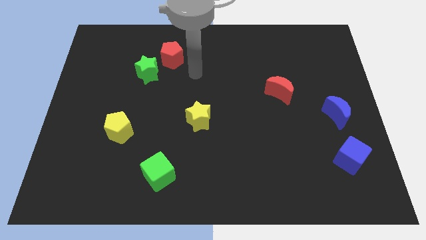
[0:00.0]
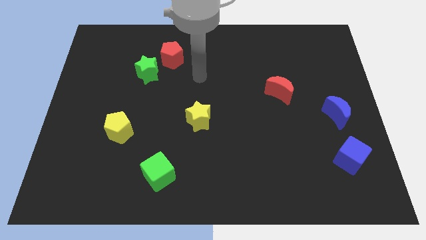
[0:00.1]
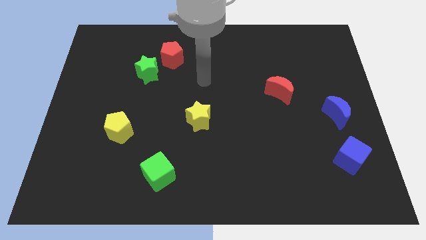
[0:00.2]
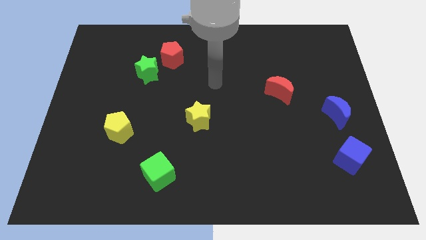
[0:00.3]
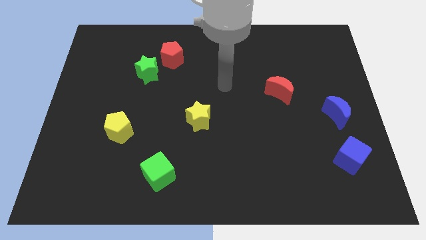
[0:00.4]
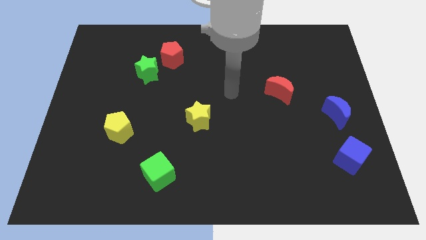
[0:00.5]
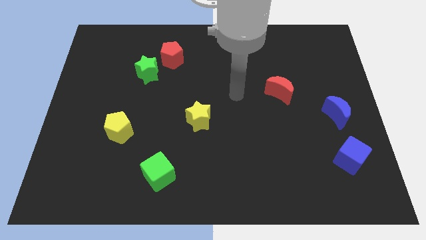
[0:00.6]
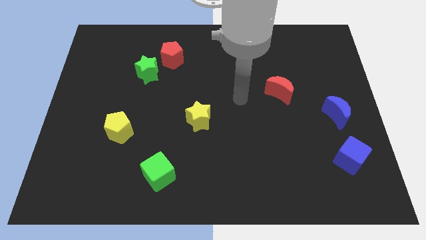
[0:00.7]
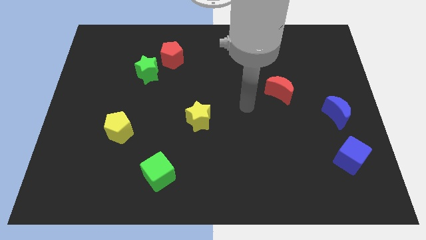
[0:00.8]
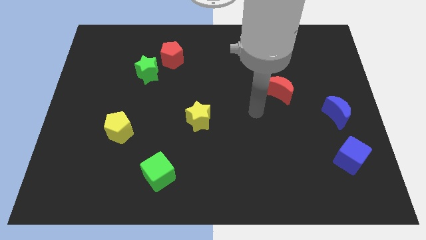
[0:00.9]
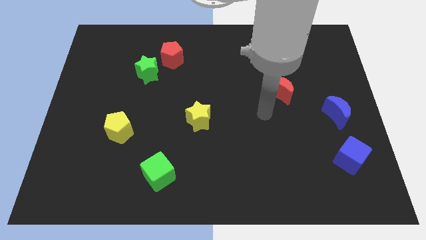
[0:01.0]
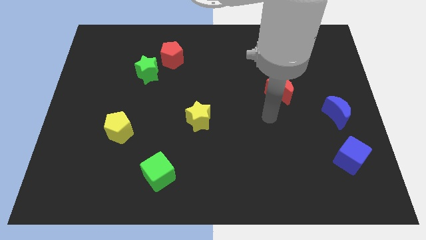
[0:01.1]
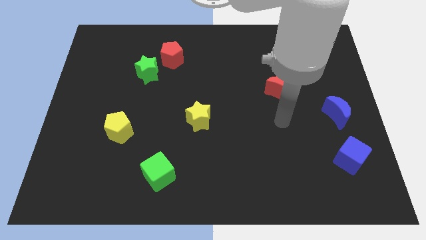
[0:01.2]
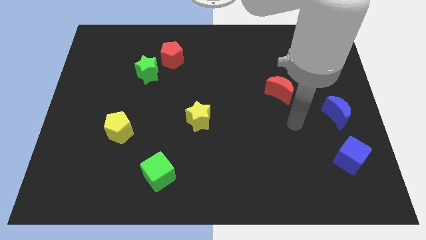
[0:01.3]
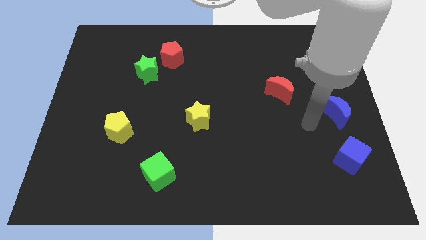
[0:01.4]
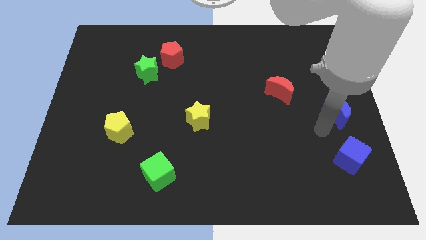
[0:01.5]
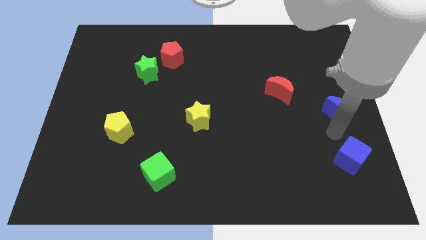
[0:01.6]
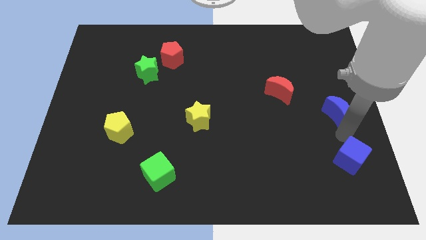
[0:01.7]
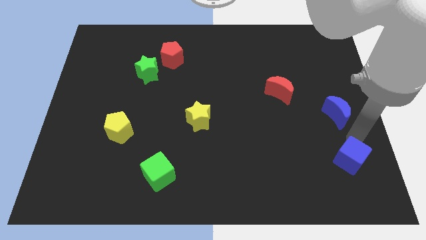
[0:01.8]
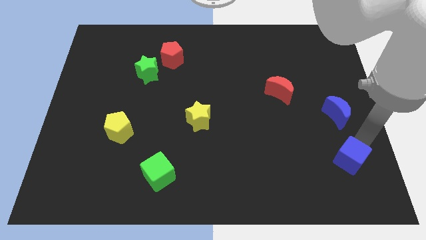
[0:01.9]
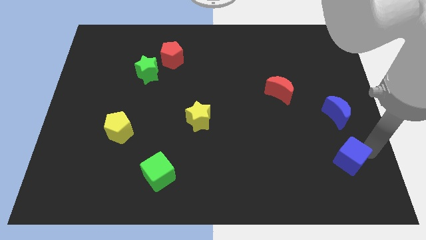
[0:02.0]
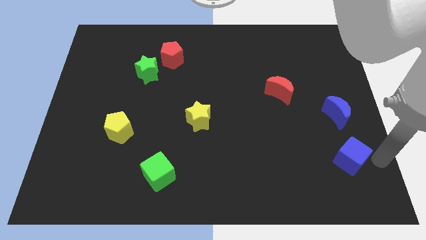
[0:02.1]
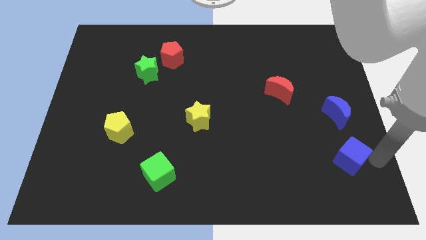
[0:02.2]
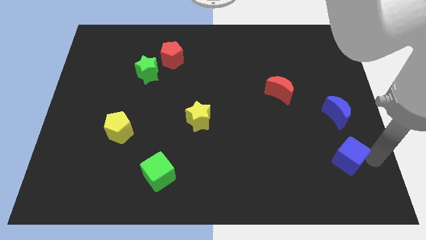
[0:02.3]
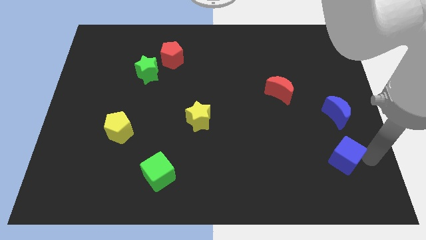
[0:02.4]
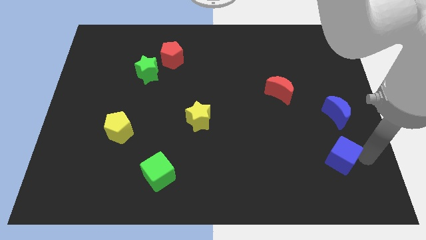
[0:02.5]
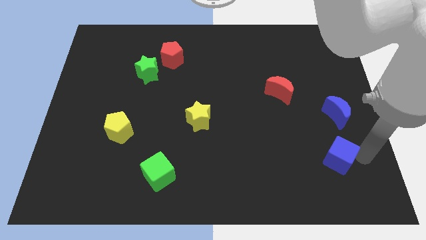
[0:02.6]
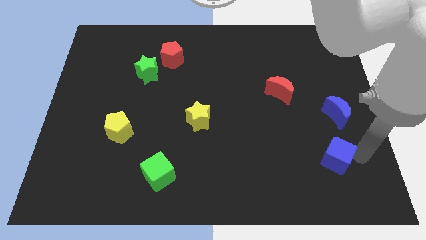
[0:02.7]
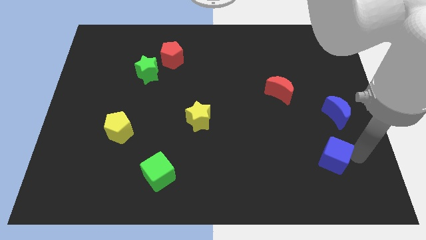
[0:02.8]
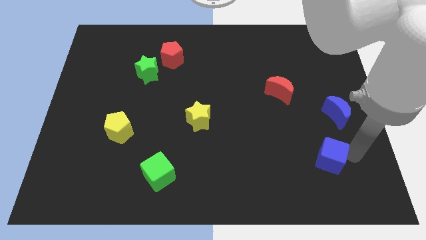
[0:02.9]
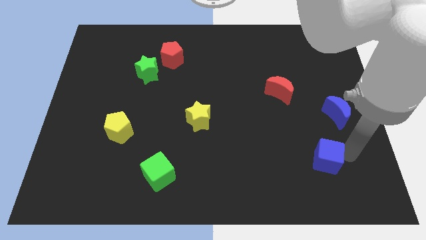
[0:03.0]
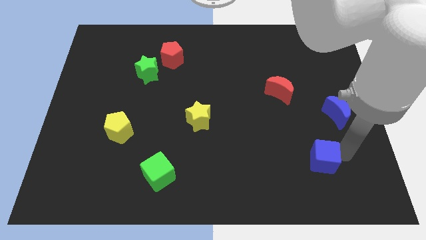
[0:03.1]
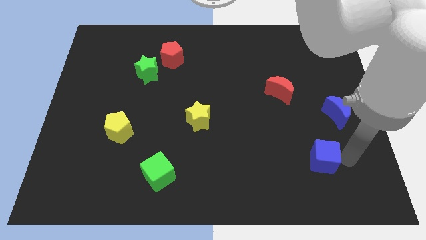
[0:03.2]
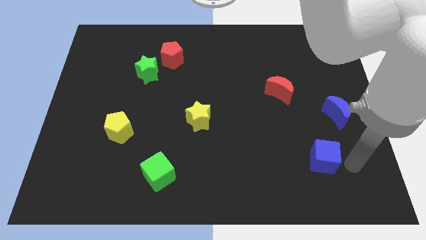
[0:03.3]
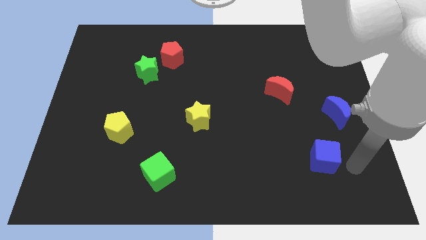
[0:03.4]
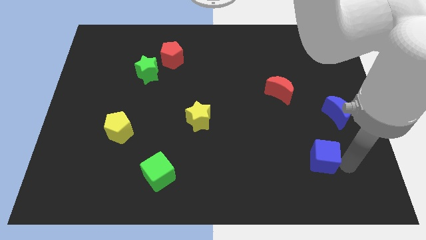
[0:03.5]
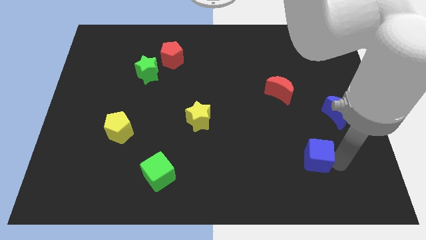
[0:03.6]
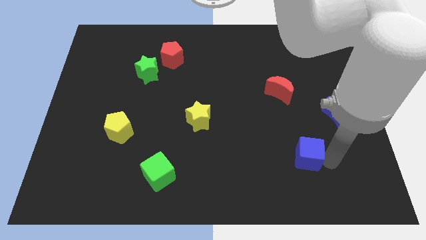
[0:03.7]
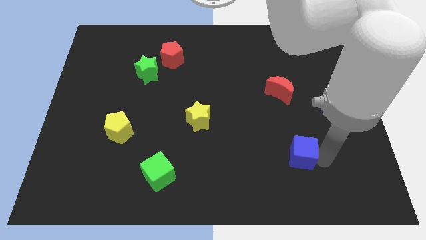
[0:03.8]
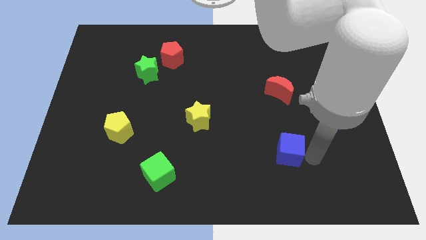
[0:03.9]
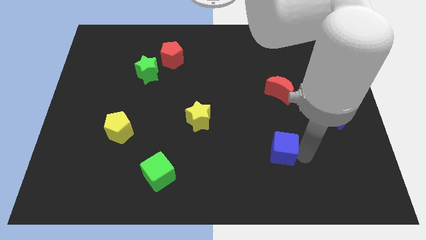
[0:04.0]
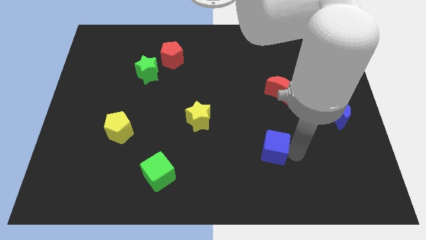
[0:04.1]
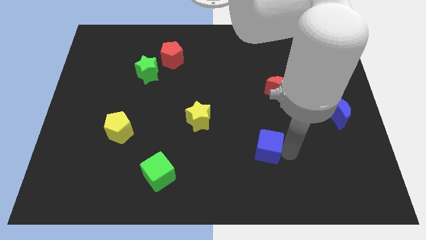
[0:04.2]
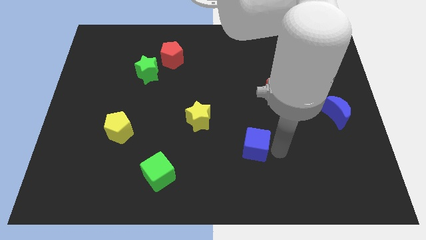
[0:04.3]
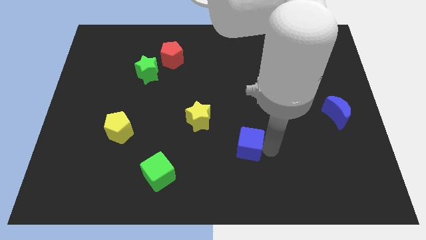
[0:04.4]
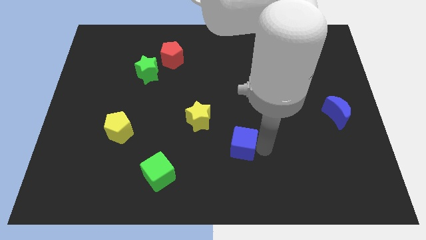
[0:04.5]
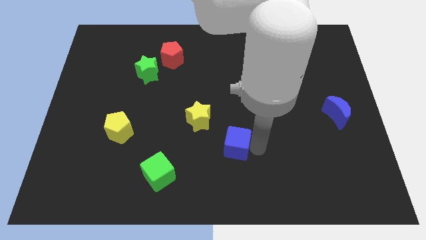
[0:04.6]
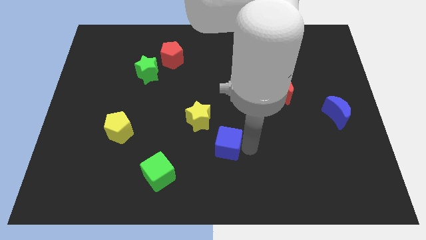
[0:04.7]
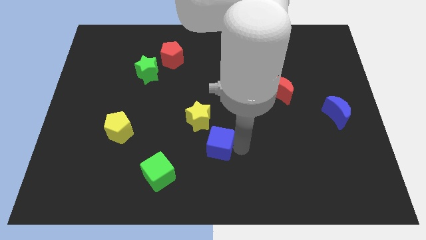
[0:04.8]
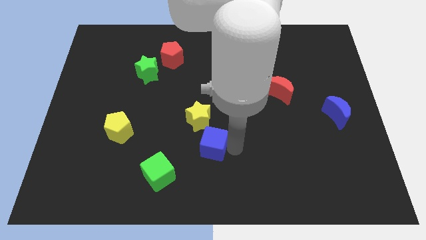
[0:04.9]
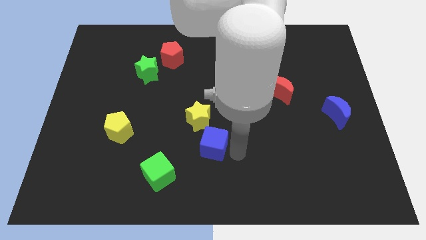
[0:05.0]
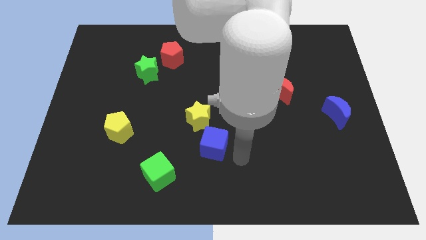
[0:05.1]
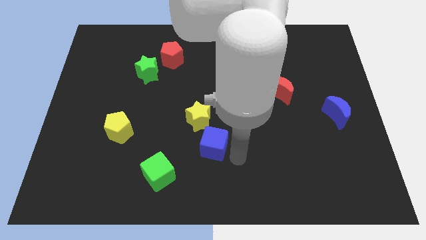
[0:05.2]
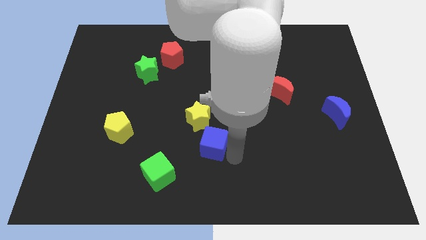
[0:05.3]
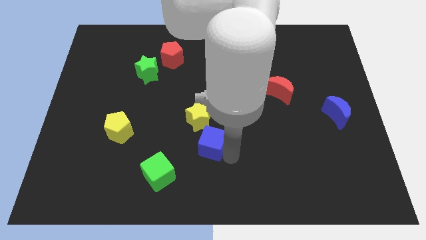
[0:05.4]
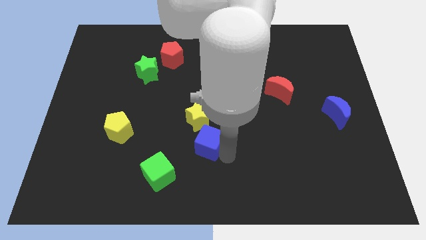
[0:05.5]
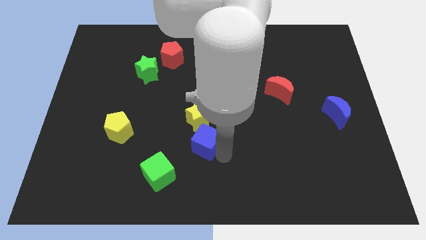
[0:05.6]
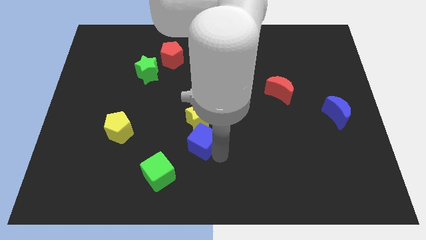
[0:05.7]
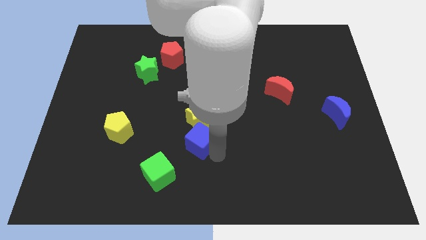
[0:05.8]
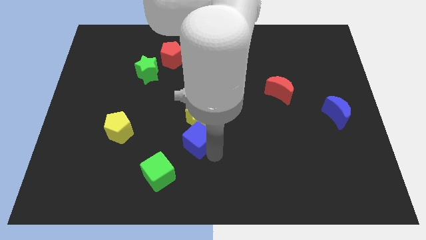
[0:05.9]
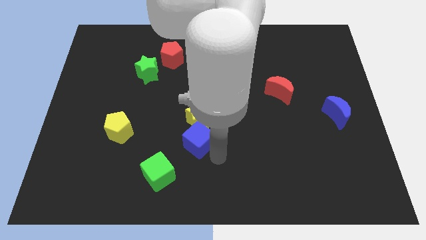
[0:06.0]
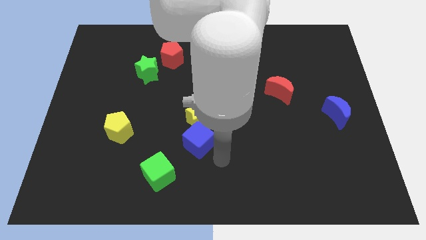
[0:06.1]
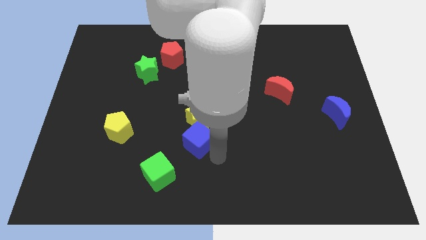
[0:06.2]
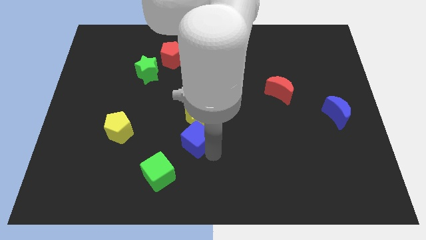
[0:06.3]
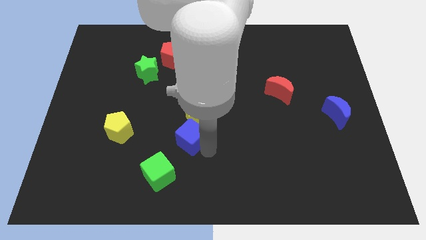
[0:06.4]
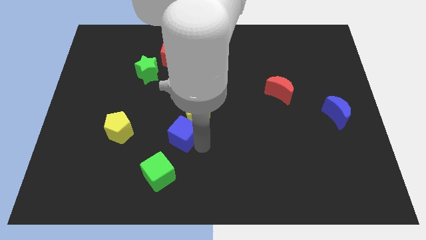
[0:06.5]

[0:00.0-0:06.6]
put the blue cube to the right of the yellow pentagon
